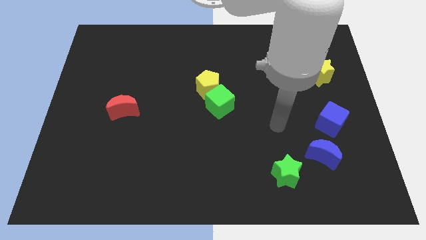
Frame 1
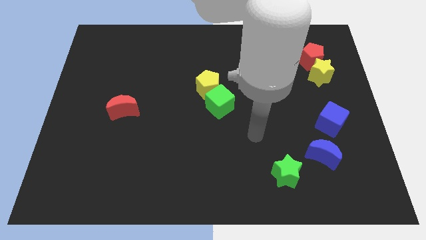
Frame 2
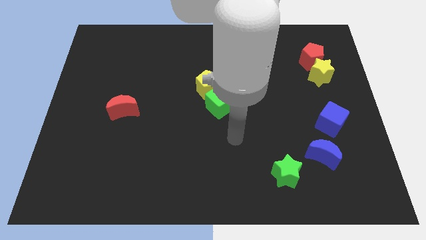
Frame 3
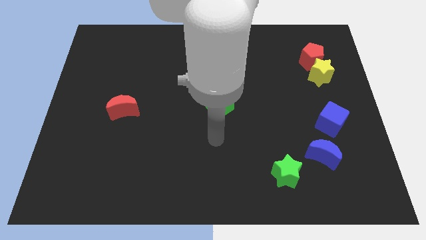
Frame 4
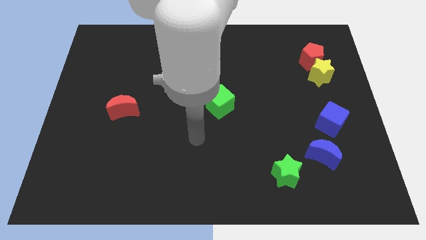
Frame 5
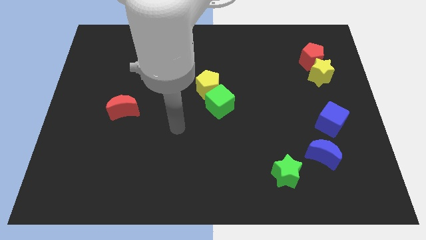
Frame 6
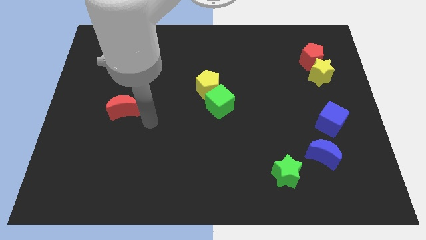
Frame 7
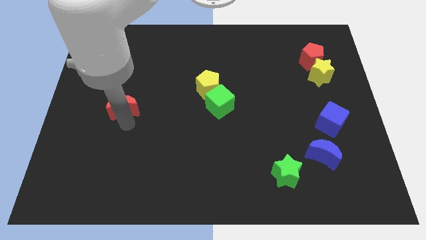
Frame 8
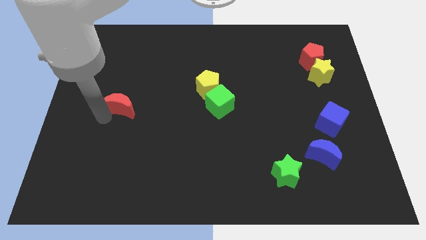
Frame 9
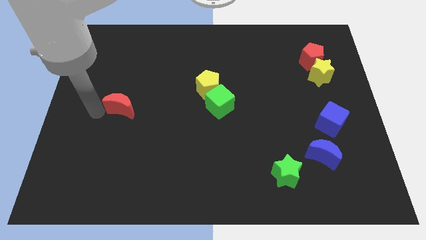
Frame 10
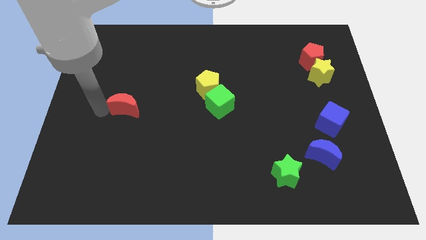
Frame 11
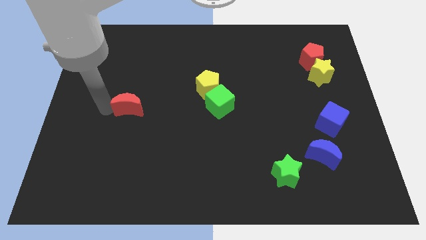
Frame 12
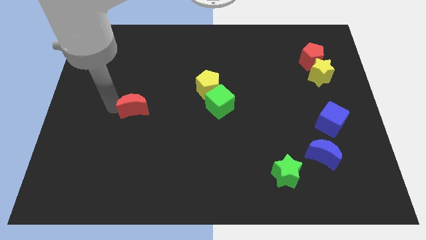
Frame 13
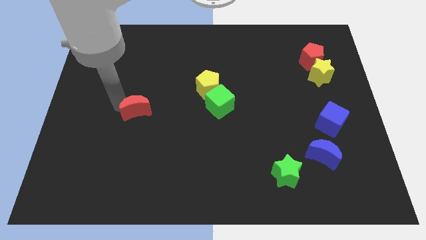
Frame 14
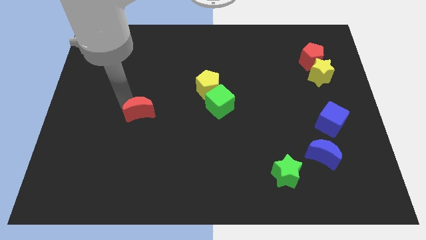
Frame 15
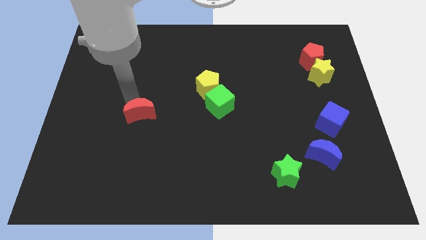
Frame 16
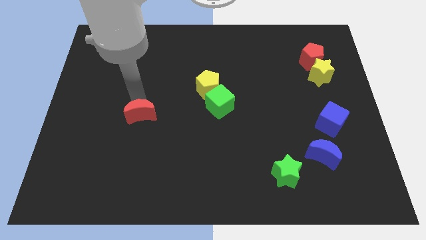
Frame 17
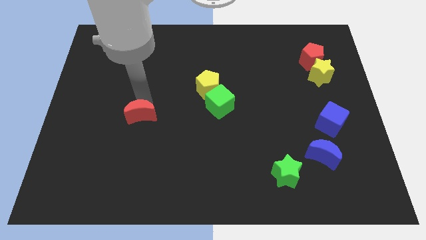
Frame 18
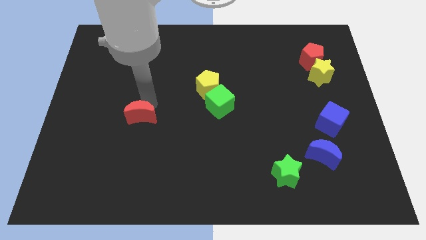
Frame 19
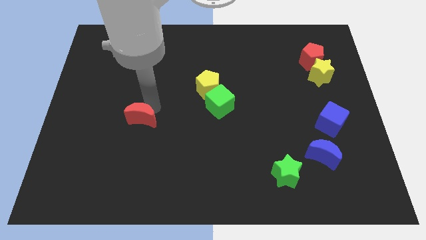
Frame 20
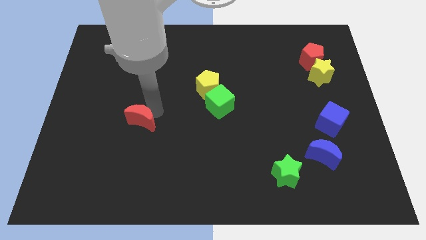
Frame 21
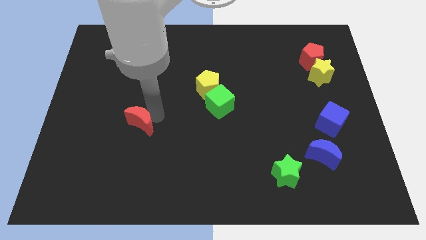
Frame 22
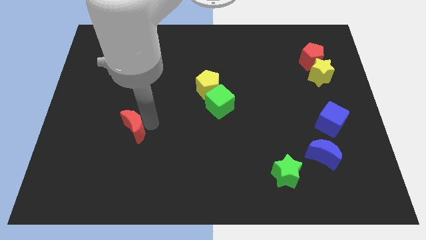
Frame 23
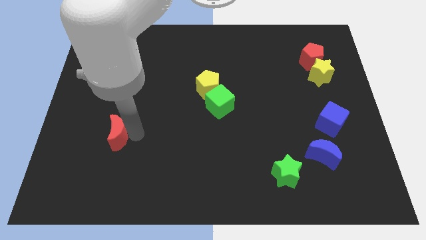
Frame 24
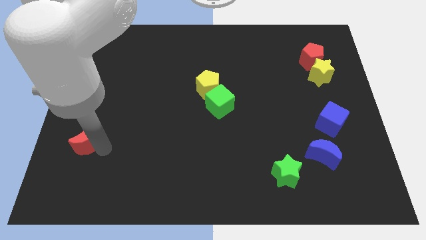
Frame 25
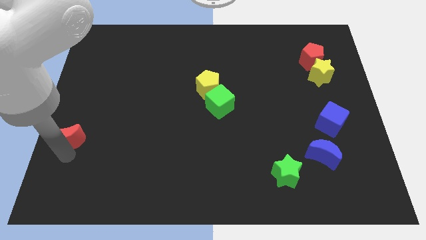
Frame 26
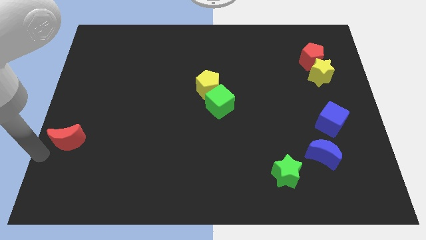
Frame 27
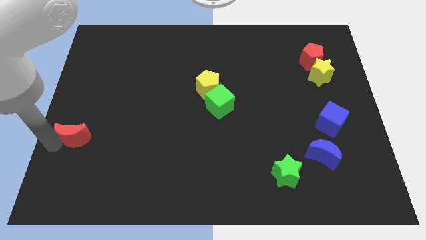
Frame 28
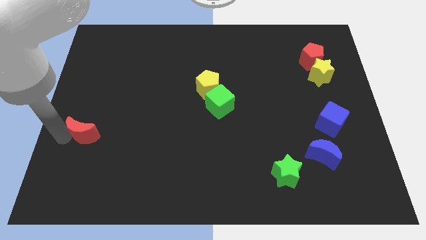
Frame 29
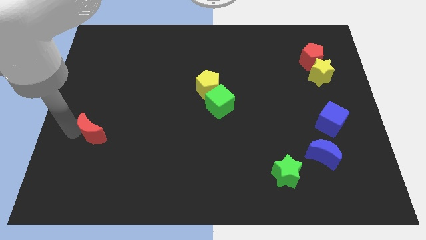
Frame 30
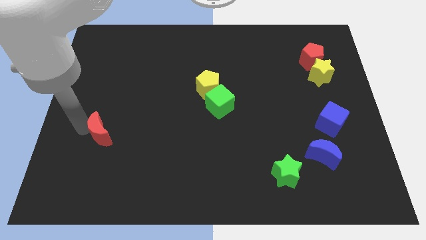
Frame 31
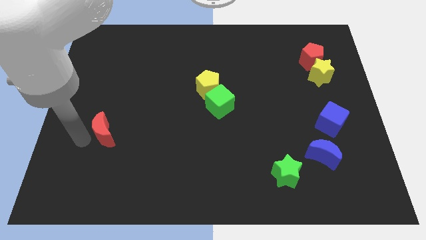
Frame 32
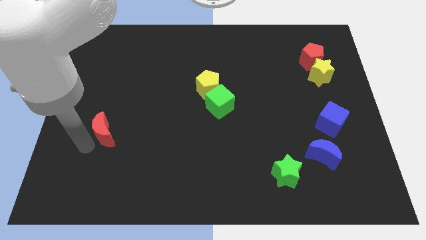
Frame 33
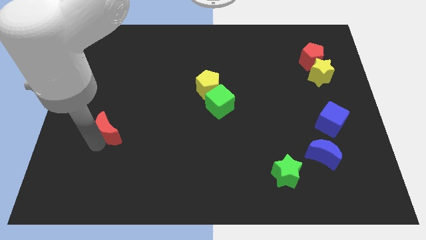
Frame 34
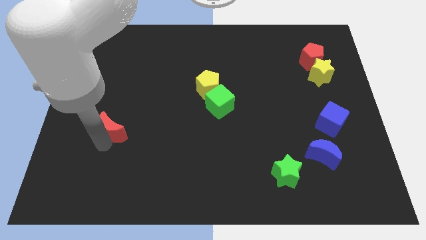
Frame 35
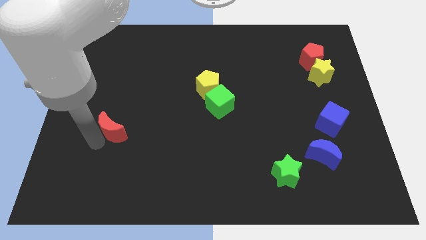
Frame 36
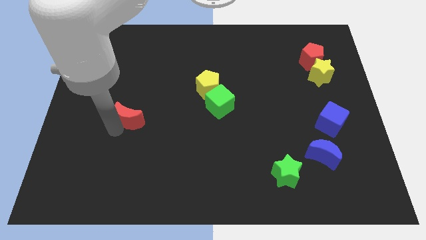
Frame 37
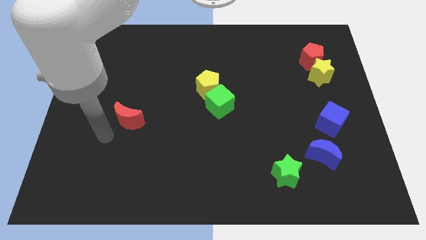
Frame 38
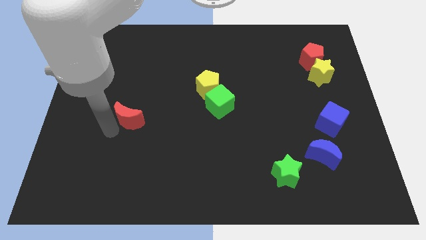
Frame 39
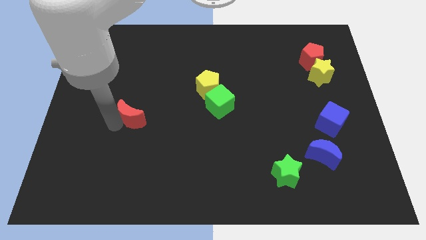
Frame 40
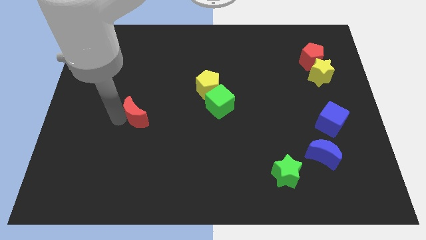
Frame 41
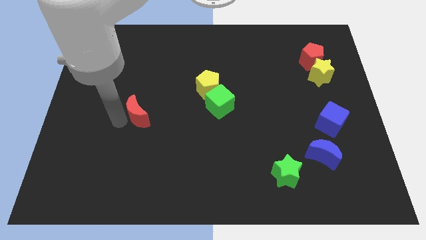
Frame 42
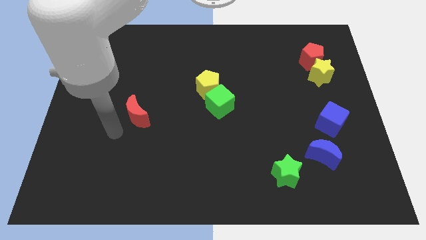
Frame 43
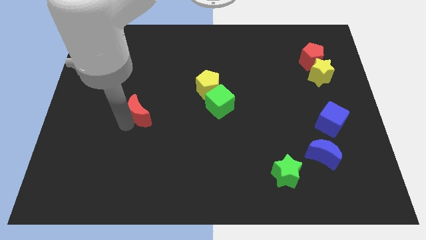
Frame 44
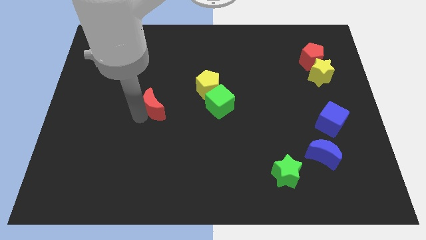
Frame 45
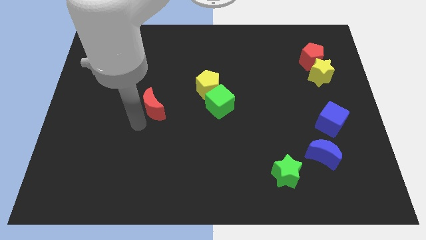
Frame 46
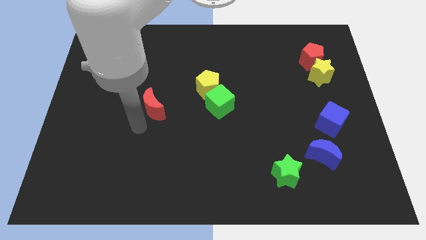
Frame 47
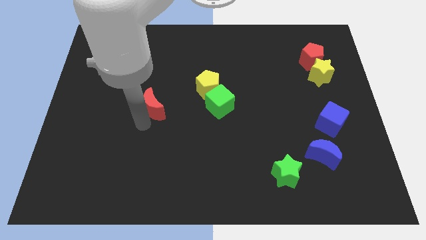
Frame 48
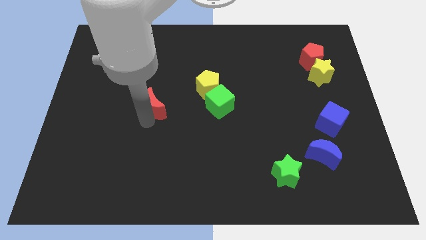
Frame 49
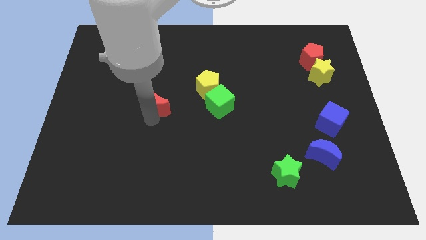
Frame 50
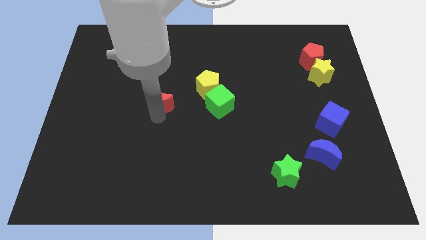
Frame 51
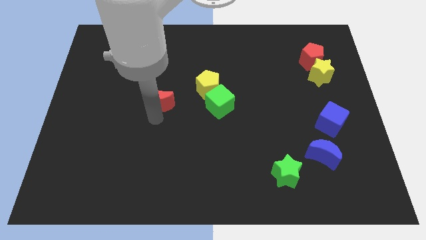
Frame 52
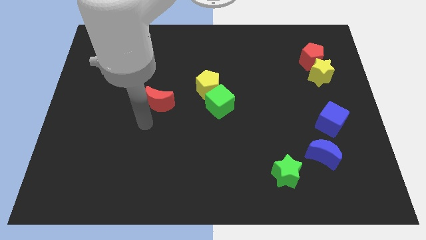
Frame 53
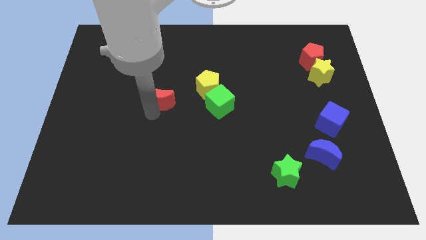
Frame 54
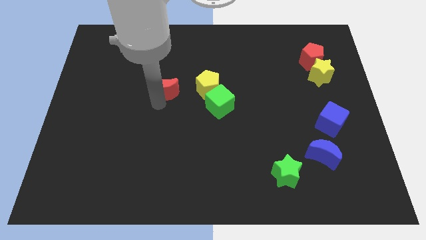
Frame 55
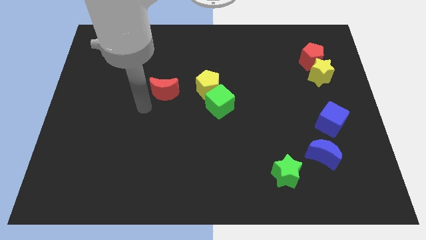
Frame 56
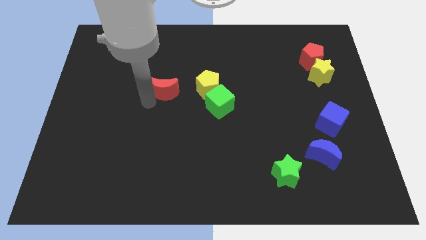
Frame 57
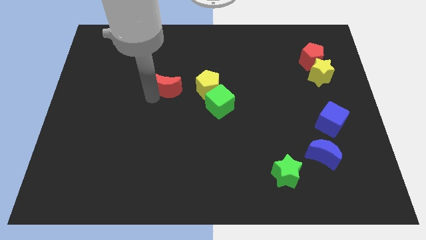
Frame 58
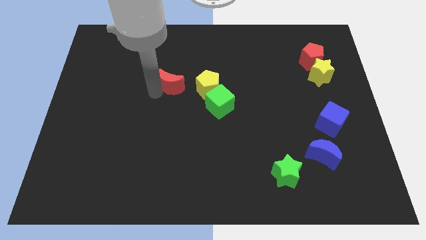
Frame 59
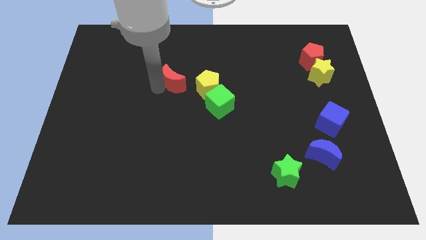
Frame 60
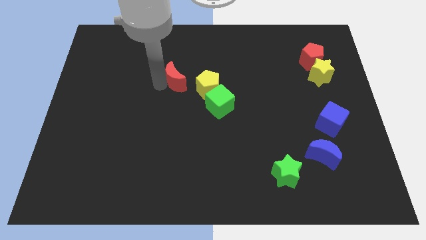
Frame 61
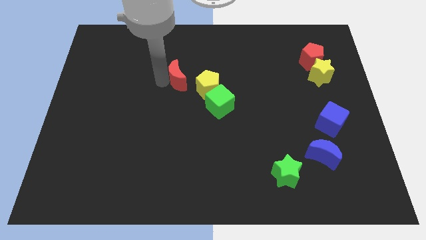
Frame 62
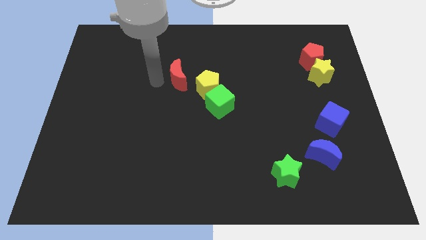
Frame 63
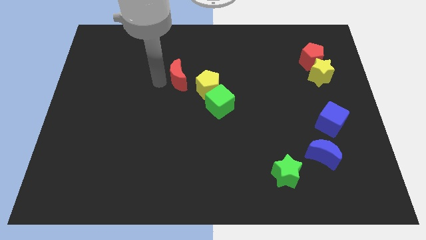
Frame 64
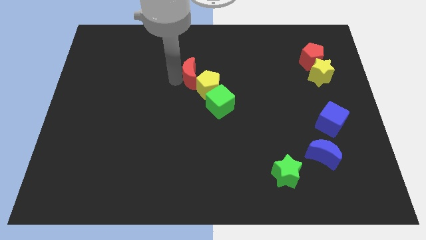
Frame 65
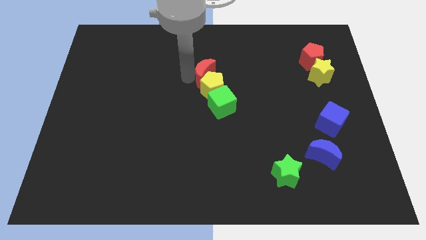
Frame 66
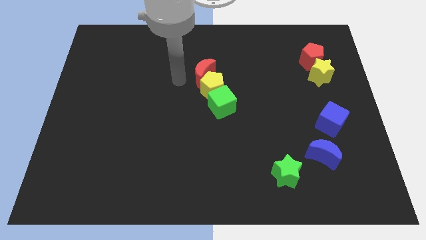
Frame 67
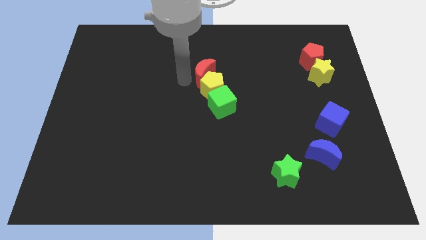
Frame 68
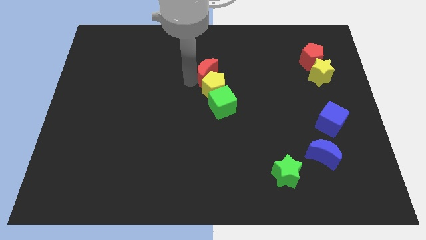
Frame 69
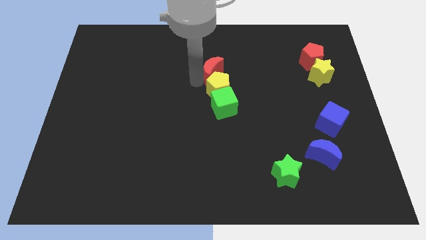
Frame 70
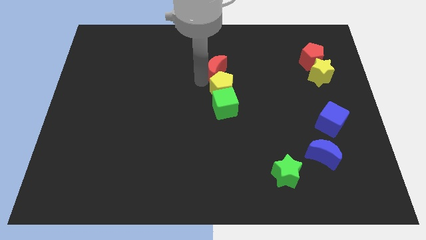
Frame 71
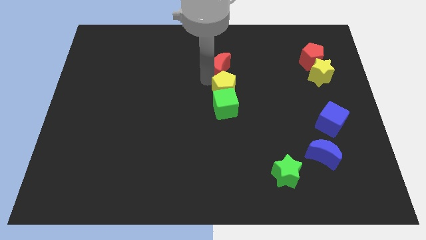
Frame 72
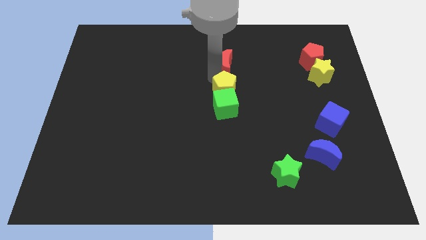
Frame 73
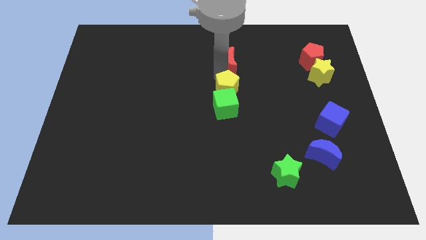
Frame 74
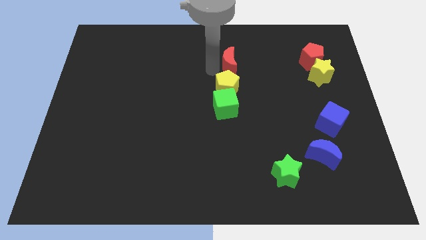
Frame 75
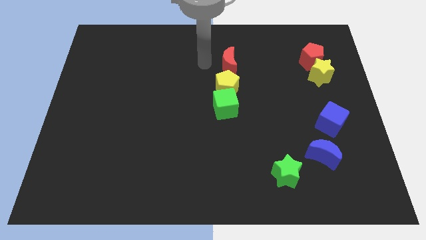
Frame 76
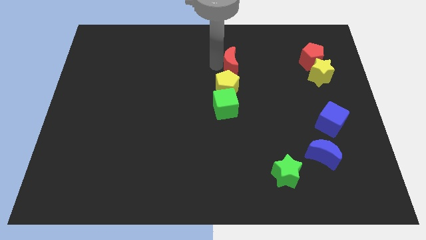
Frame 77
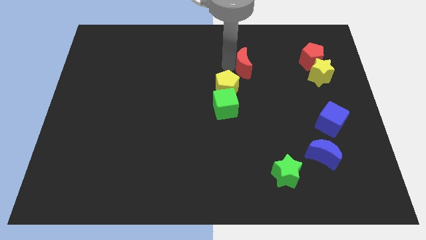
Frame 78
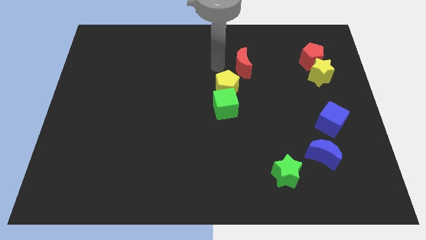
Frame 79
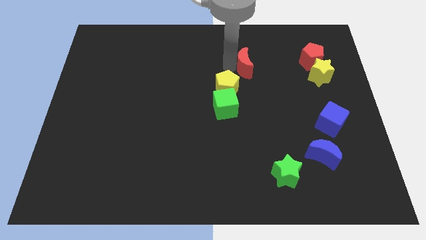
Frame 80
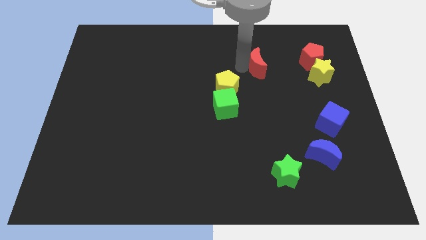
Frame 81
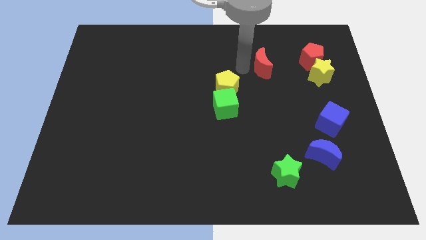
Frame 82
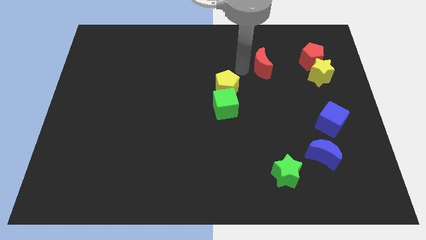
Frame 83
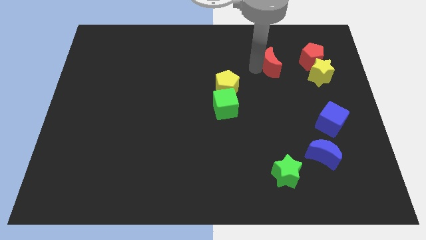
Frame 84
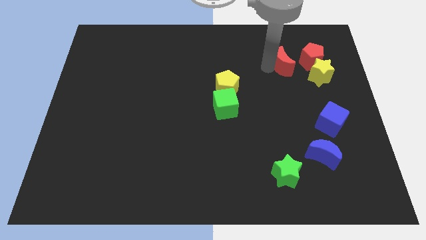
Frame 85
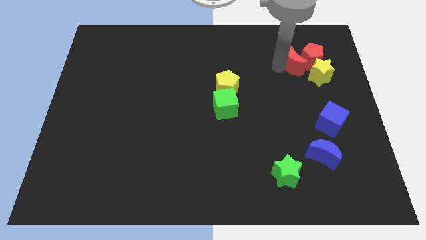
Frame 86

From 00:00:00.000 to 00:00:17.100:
put the red moon to the red pentagon
